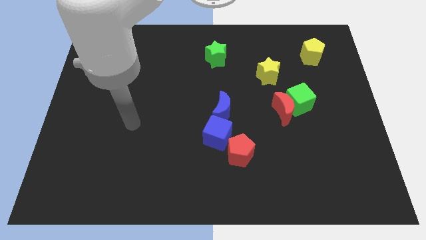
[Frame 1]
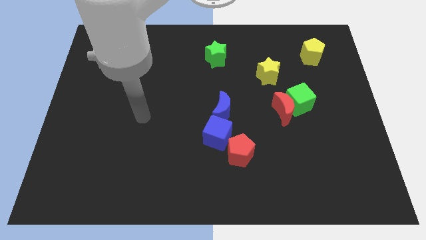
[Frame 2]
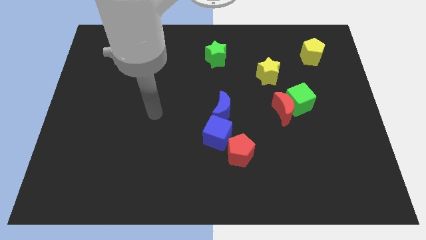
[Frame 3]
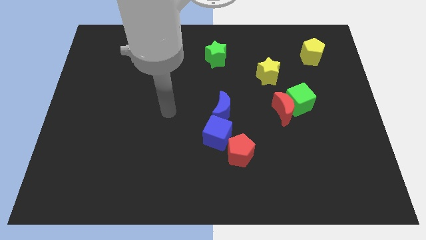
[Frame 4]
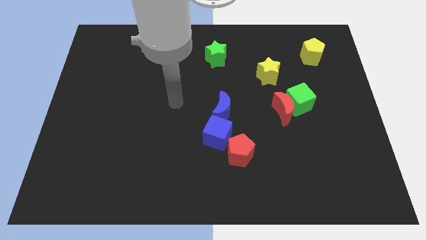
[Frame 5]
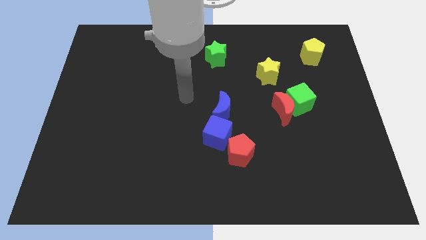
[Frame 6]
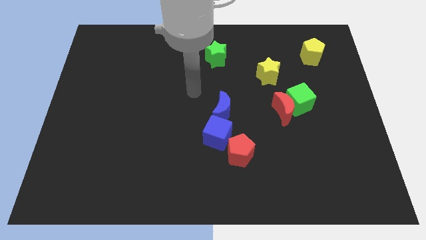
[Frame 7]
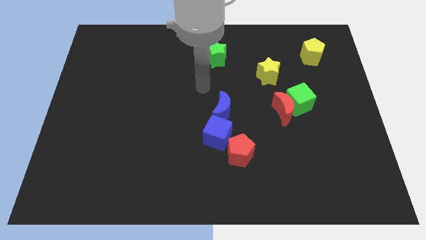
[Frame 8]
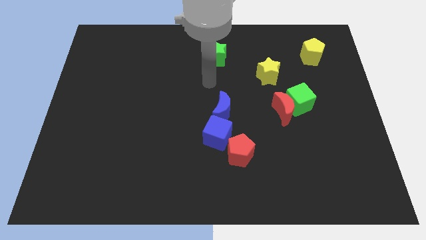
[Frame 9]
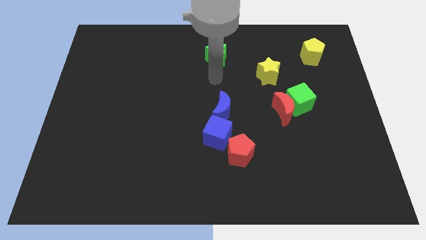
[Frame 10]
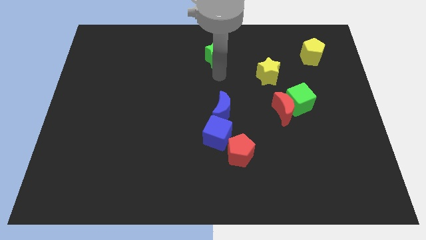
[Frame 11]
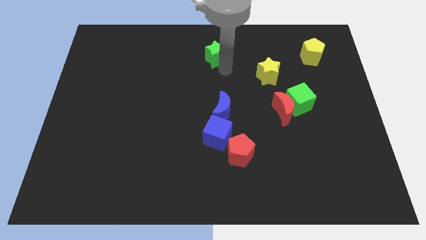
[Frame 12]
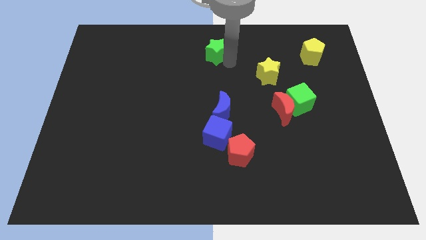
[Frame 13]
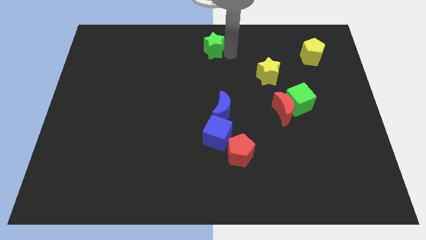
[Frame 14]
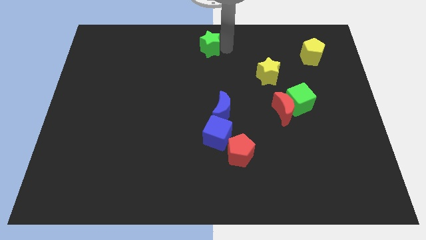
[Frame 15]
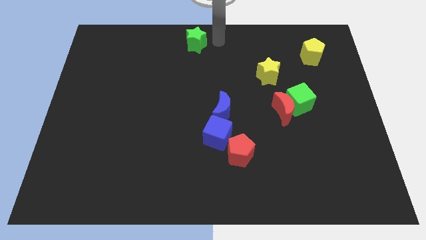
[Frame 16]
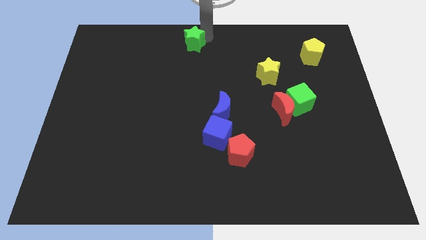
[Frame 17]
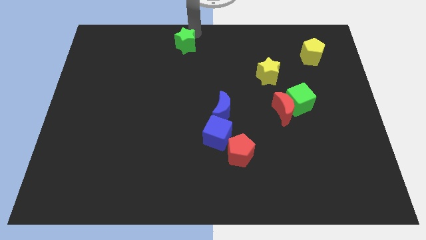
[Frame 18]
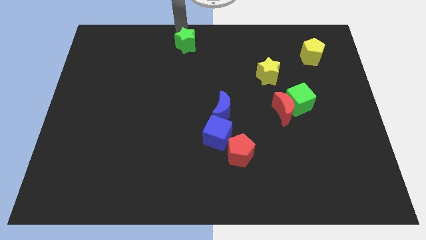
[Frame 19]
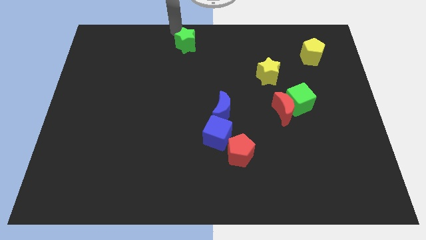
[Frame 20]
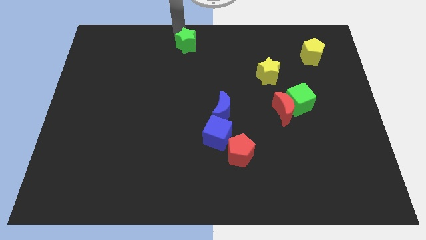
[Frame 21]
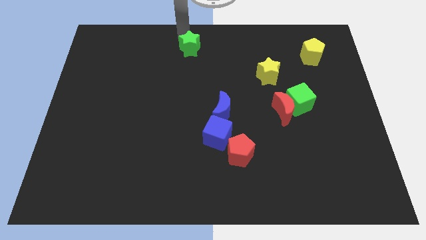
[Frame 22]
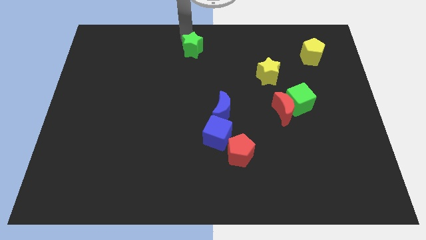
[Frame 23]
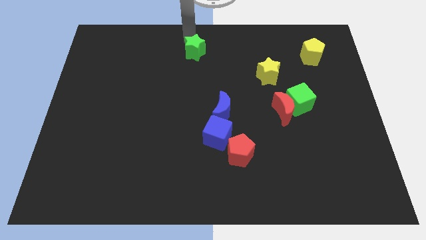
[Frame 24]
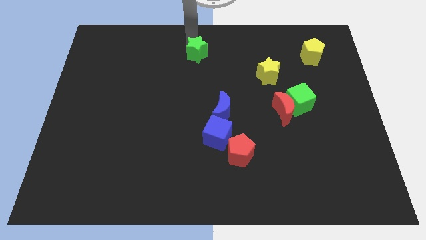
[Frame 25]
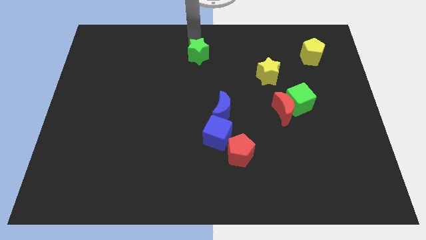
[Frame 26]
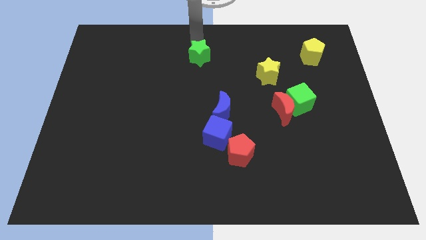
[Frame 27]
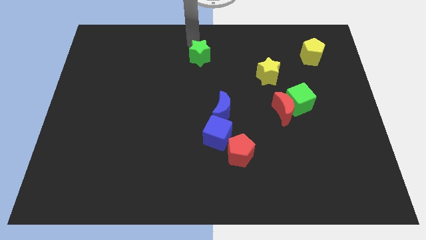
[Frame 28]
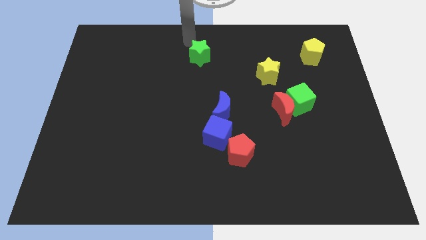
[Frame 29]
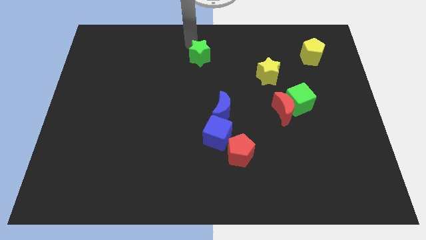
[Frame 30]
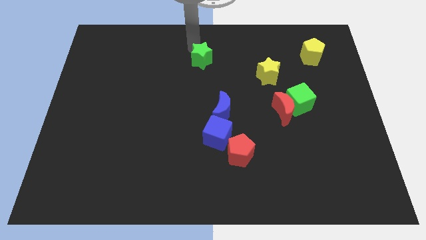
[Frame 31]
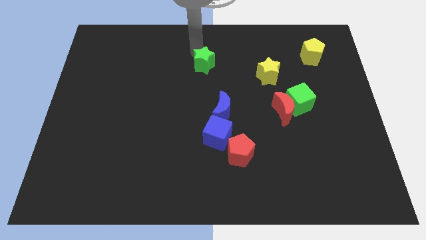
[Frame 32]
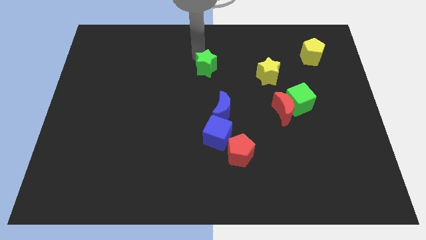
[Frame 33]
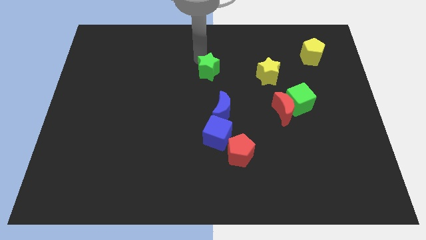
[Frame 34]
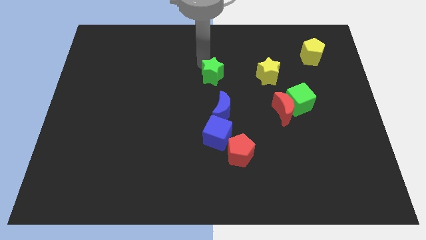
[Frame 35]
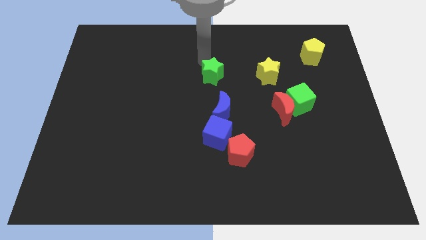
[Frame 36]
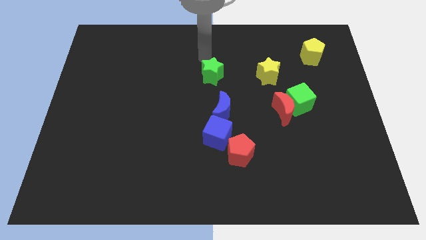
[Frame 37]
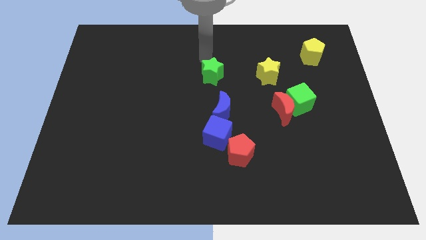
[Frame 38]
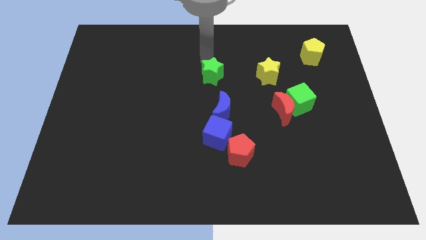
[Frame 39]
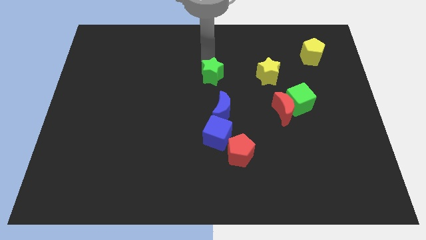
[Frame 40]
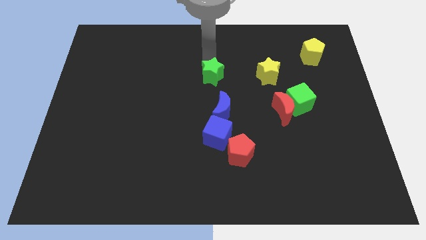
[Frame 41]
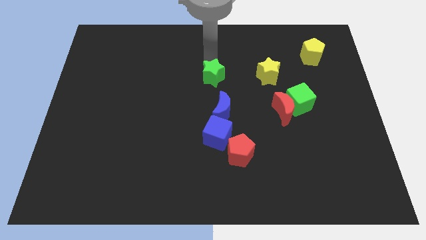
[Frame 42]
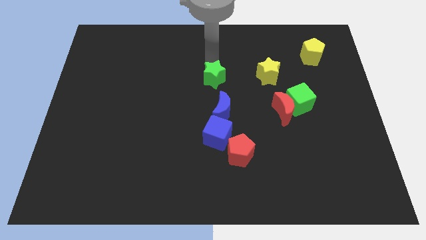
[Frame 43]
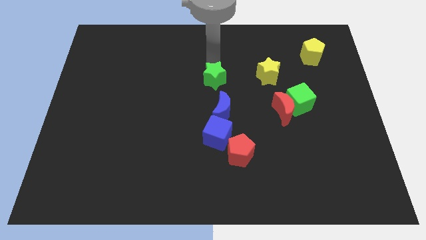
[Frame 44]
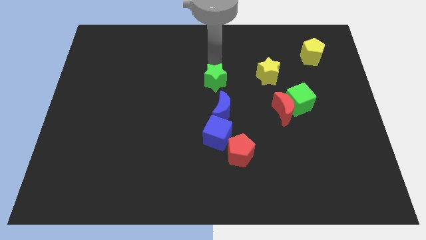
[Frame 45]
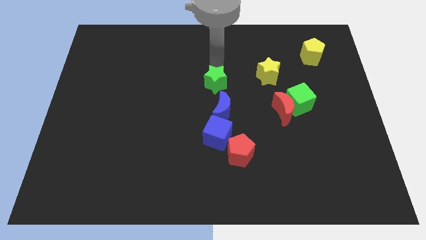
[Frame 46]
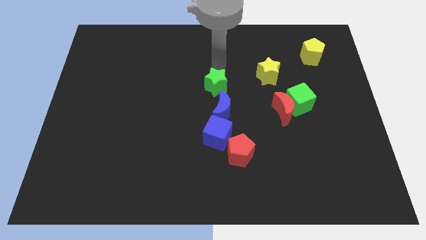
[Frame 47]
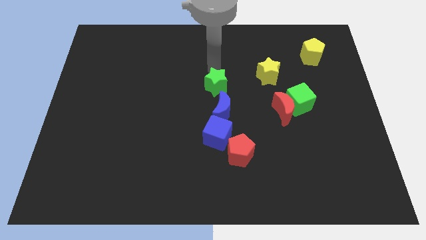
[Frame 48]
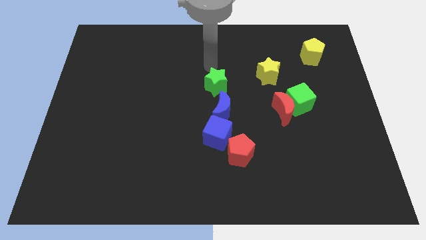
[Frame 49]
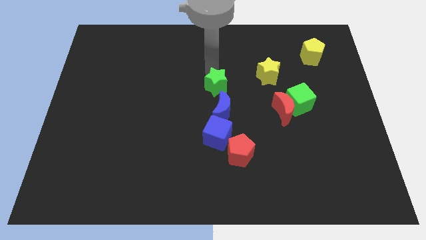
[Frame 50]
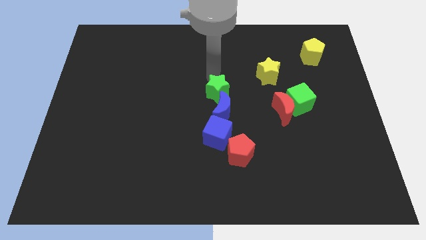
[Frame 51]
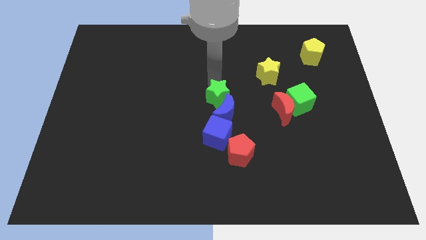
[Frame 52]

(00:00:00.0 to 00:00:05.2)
move the green star next to the blue moon

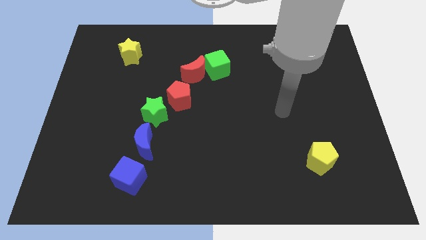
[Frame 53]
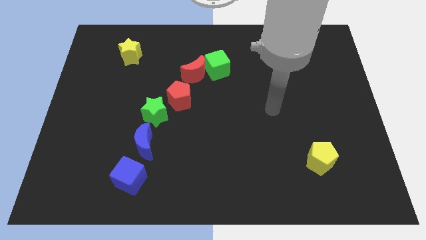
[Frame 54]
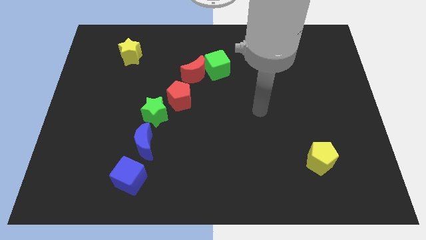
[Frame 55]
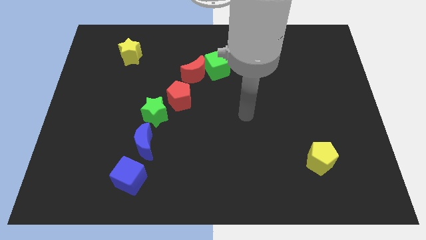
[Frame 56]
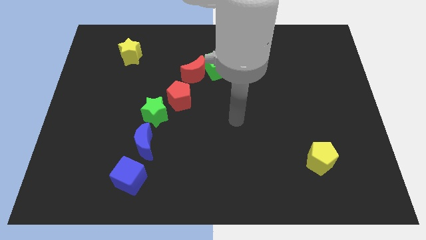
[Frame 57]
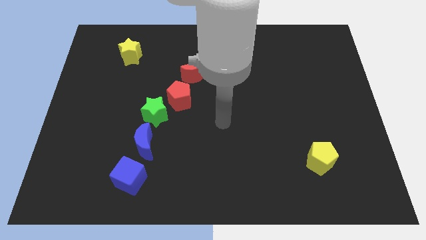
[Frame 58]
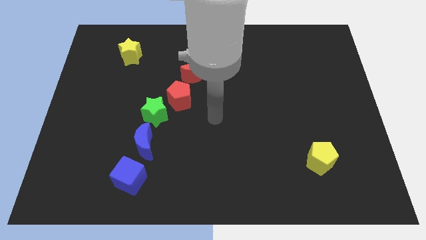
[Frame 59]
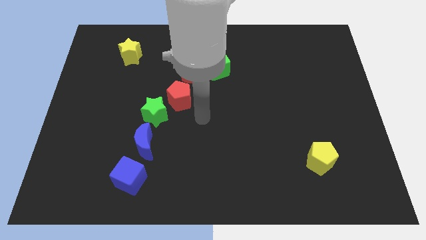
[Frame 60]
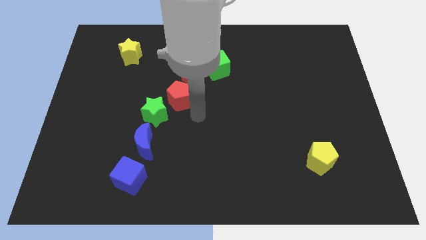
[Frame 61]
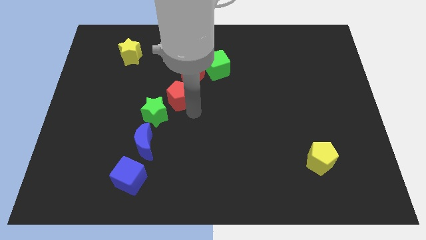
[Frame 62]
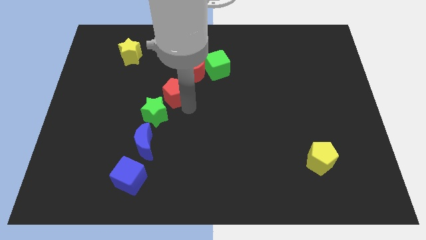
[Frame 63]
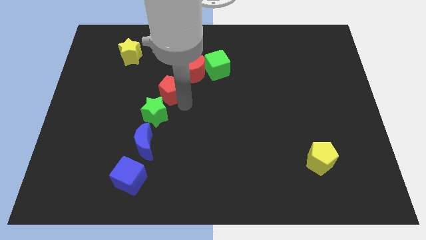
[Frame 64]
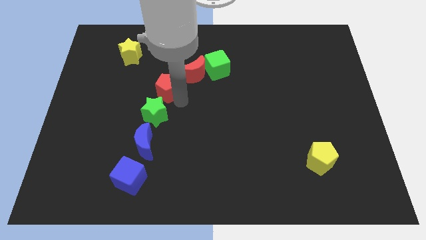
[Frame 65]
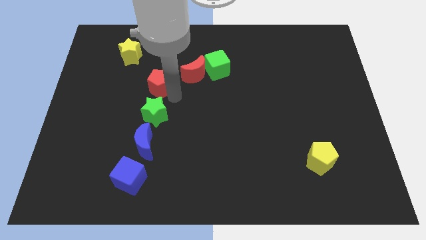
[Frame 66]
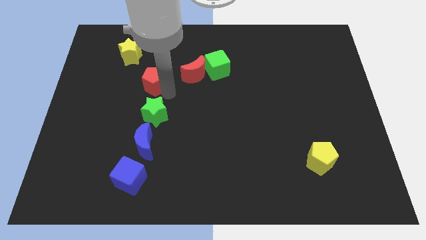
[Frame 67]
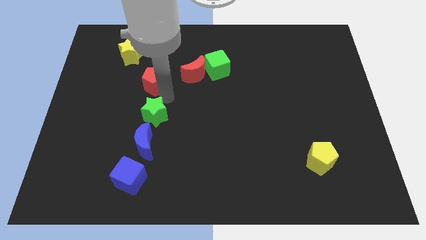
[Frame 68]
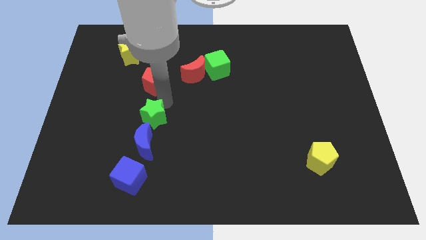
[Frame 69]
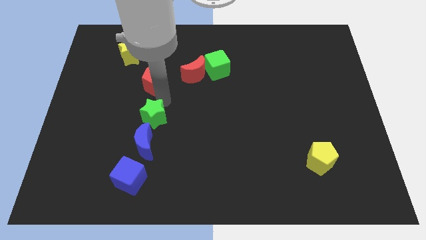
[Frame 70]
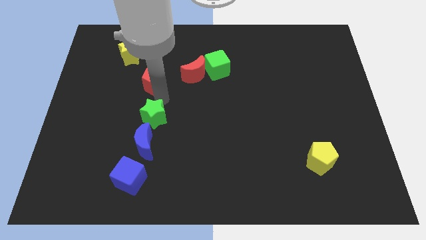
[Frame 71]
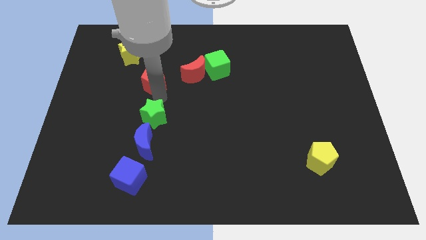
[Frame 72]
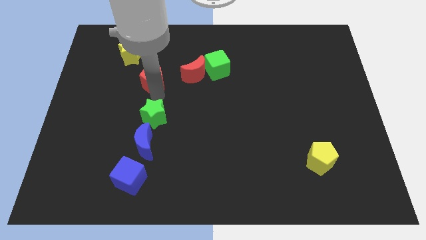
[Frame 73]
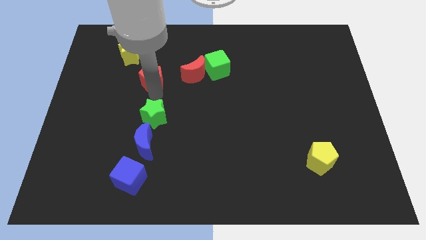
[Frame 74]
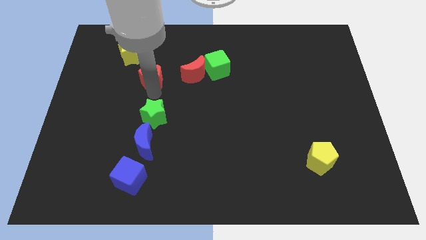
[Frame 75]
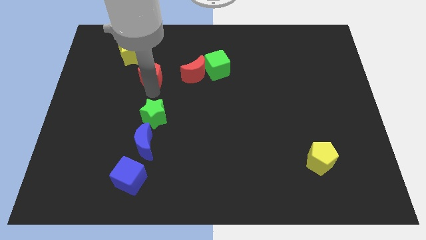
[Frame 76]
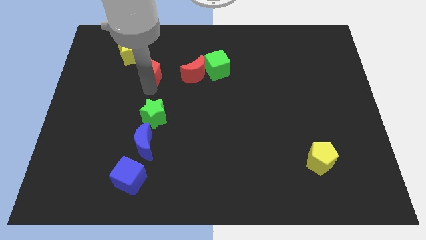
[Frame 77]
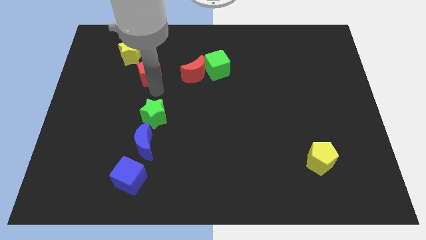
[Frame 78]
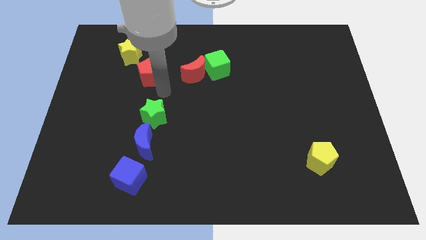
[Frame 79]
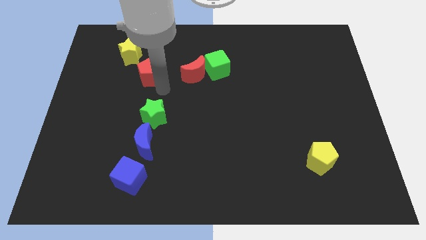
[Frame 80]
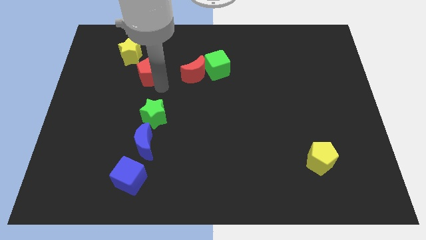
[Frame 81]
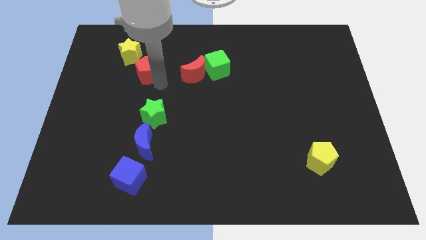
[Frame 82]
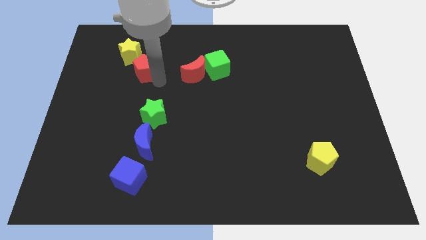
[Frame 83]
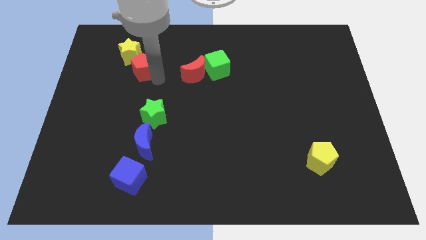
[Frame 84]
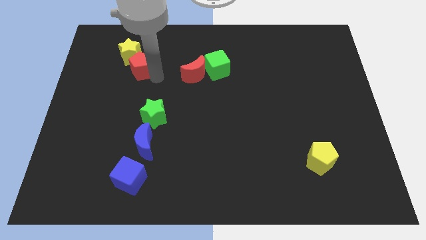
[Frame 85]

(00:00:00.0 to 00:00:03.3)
put the red pentagon next to the yellow star
